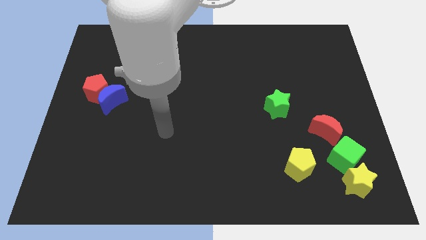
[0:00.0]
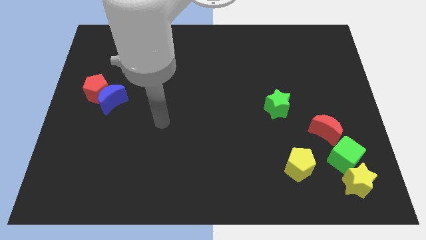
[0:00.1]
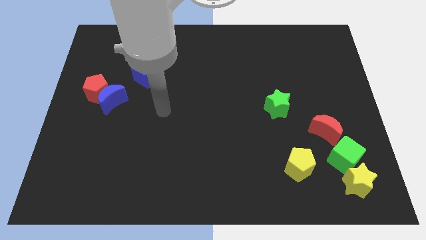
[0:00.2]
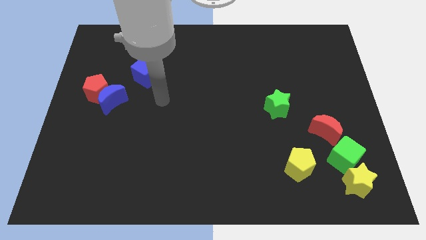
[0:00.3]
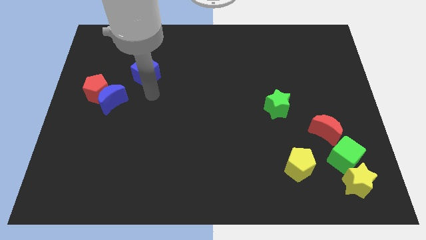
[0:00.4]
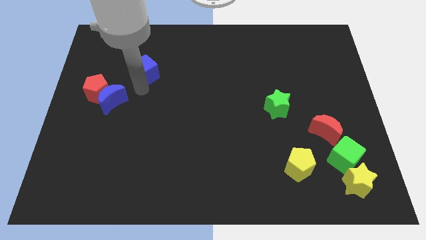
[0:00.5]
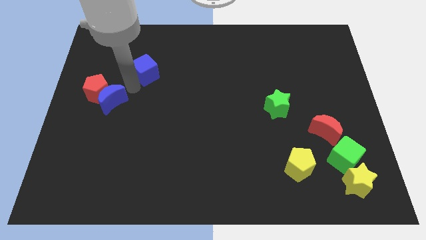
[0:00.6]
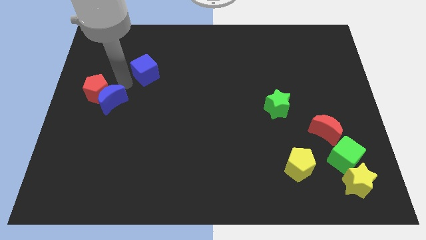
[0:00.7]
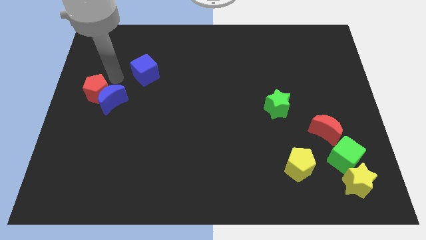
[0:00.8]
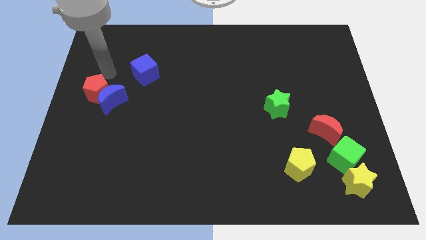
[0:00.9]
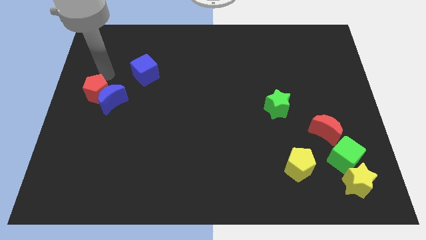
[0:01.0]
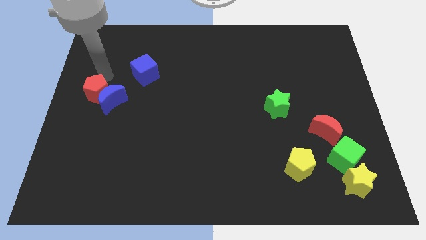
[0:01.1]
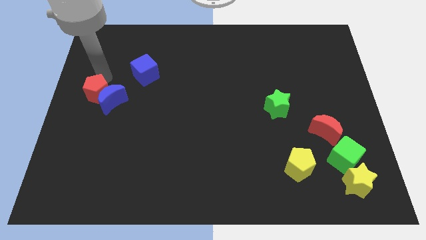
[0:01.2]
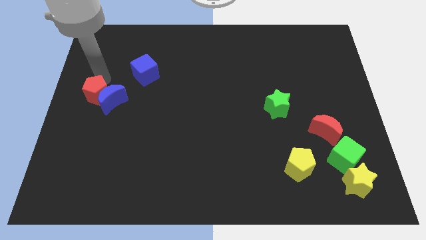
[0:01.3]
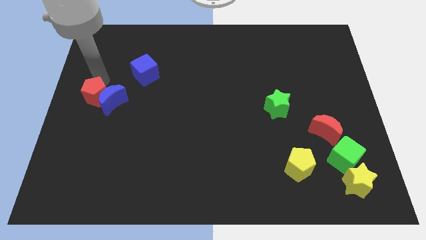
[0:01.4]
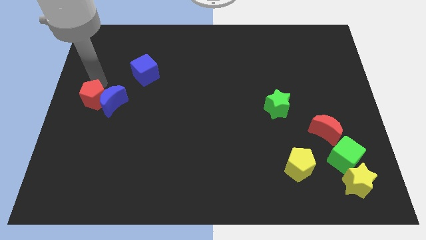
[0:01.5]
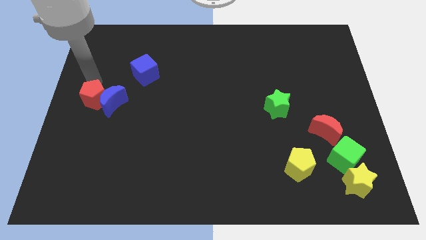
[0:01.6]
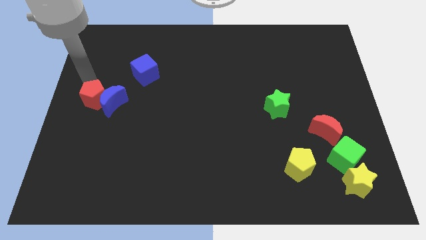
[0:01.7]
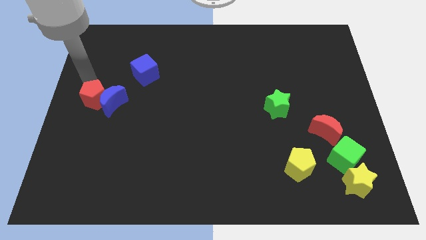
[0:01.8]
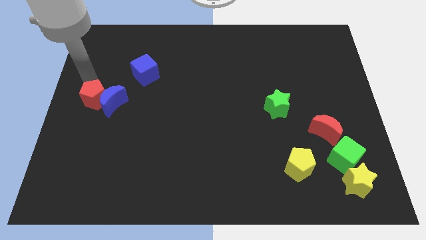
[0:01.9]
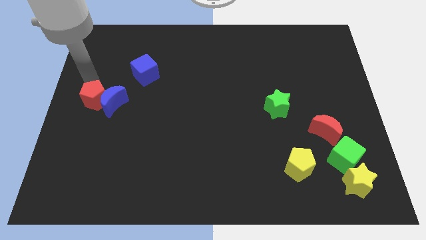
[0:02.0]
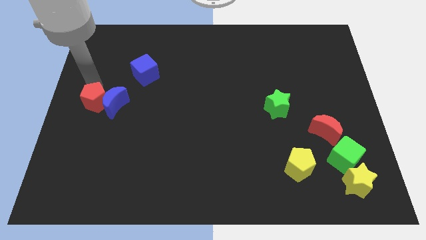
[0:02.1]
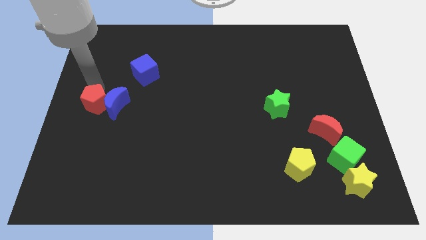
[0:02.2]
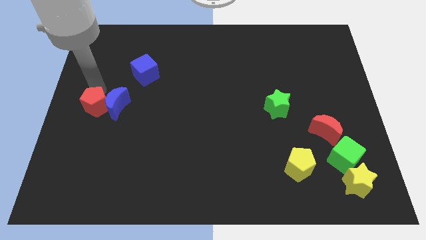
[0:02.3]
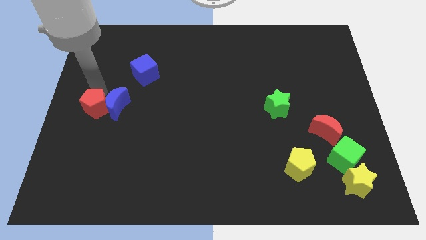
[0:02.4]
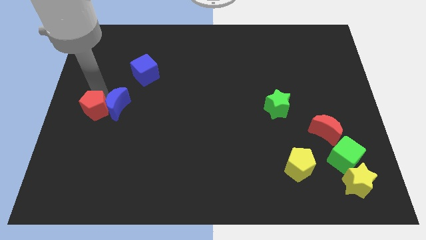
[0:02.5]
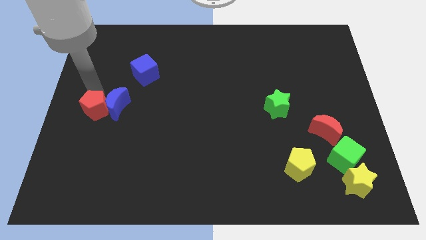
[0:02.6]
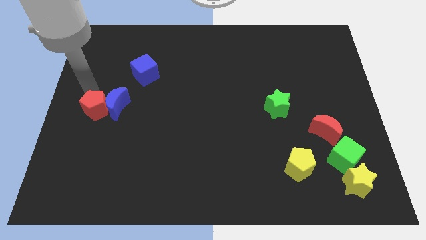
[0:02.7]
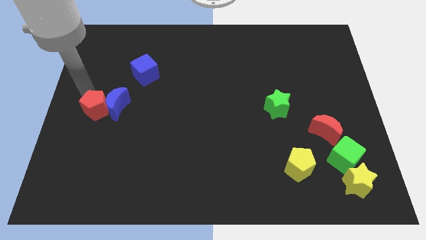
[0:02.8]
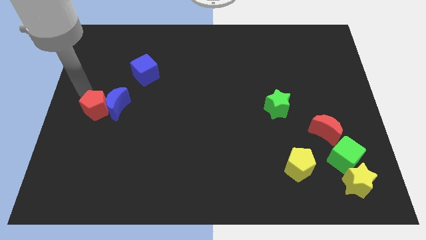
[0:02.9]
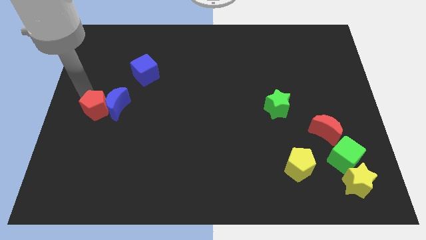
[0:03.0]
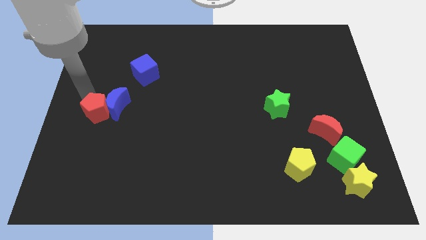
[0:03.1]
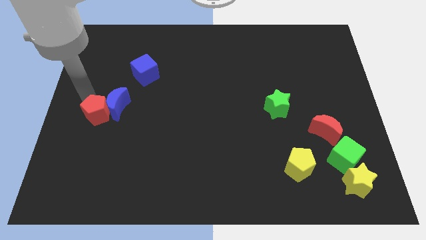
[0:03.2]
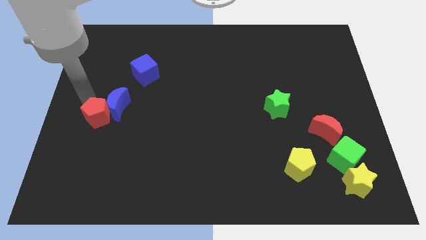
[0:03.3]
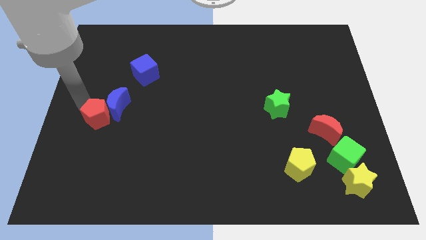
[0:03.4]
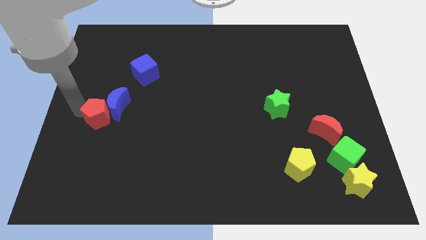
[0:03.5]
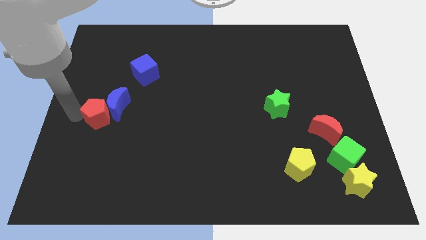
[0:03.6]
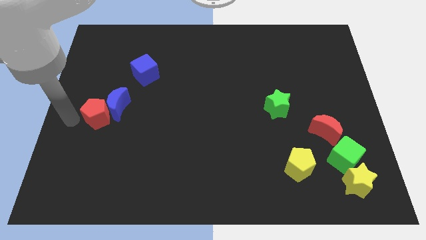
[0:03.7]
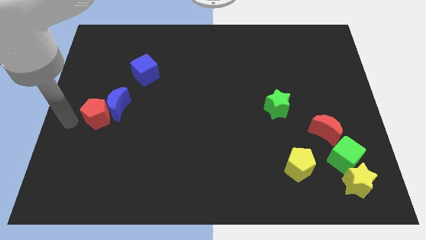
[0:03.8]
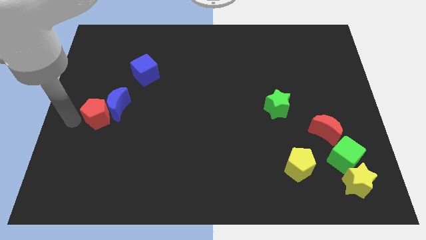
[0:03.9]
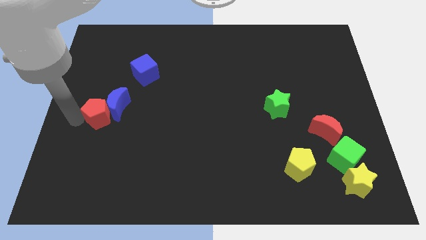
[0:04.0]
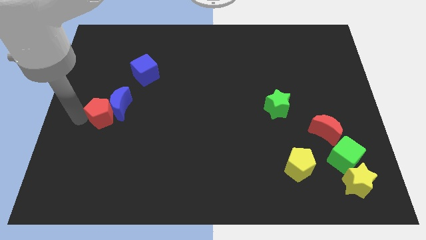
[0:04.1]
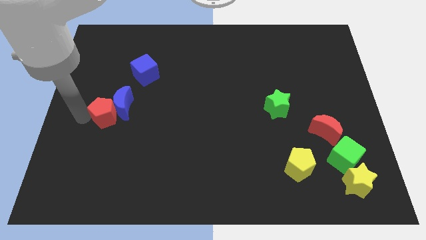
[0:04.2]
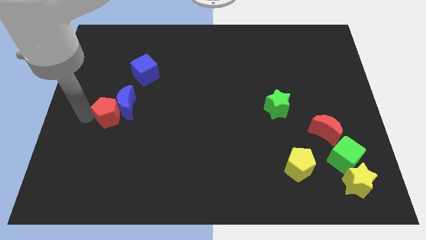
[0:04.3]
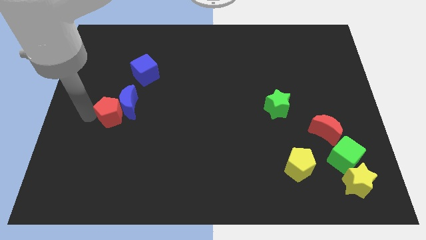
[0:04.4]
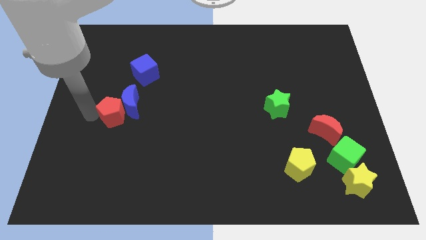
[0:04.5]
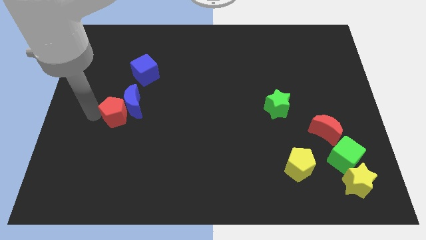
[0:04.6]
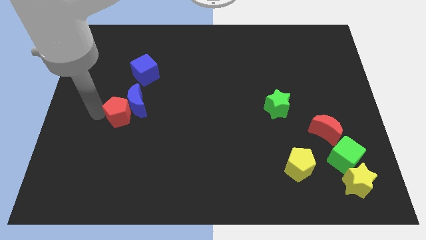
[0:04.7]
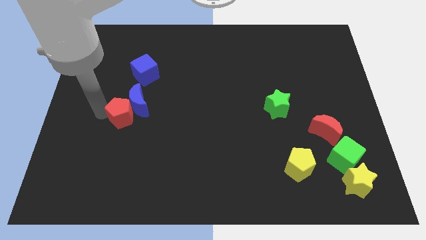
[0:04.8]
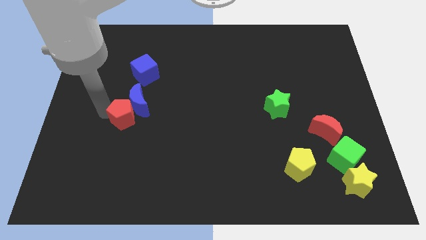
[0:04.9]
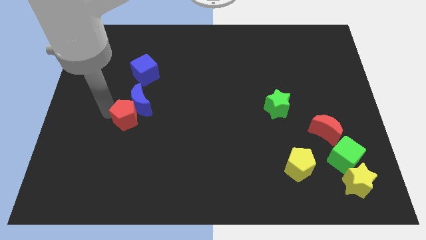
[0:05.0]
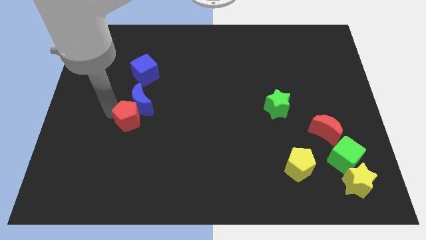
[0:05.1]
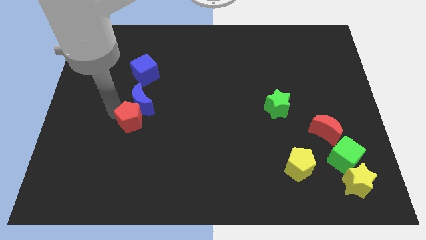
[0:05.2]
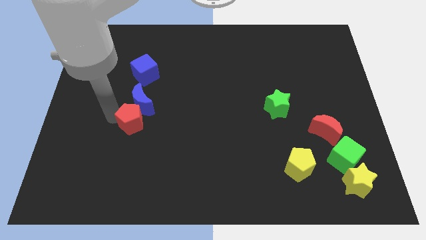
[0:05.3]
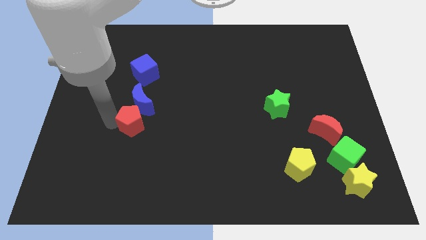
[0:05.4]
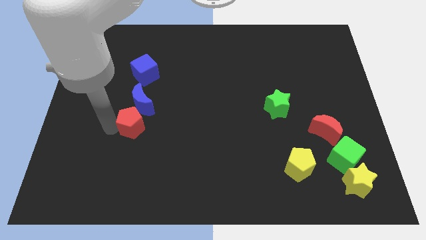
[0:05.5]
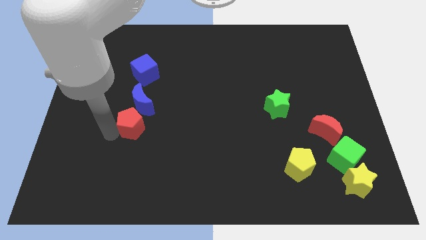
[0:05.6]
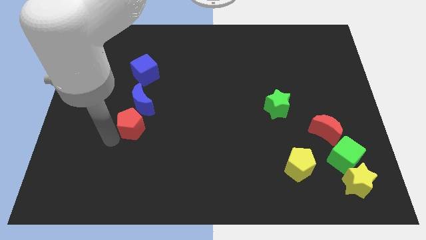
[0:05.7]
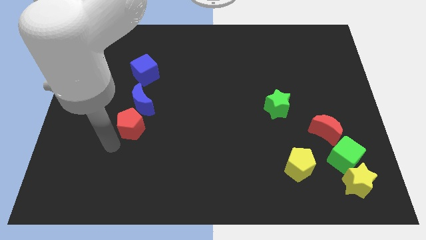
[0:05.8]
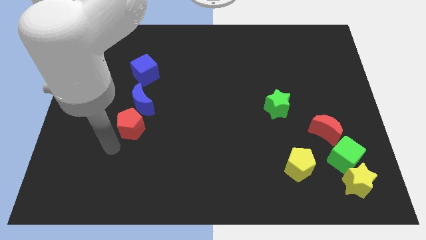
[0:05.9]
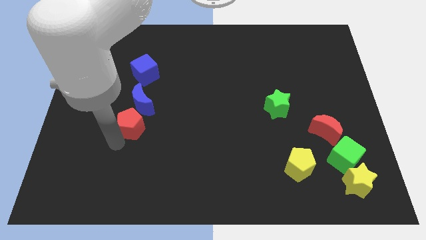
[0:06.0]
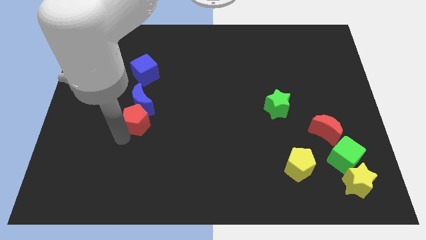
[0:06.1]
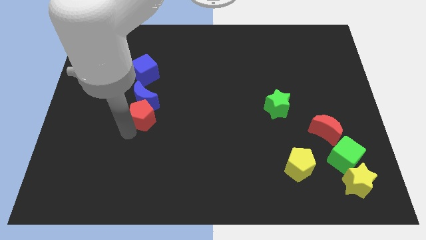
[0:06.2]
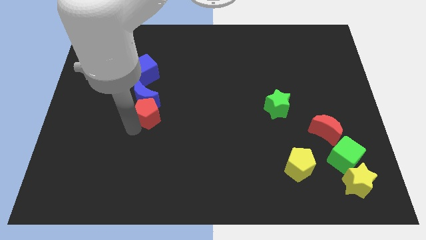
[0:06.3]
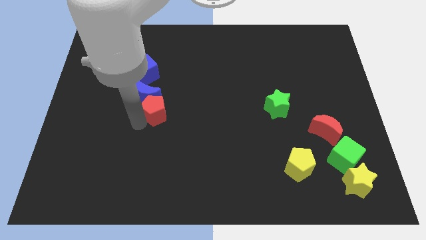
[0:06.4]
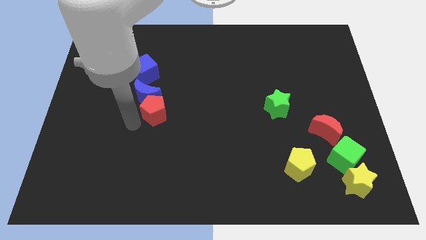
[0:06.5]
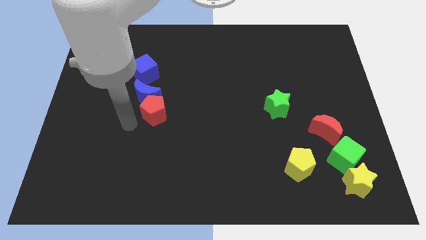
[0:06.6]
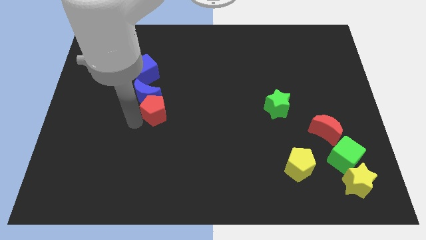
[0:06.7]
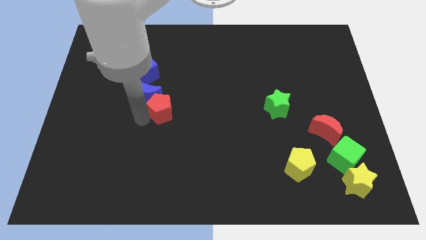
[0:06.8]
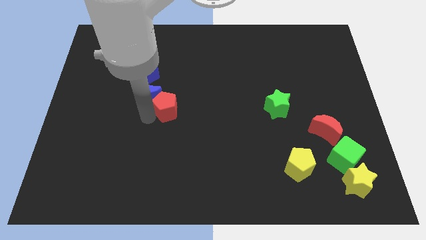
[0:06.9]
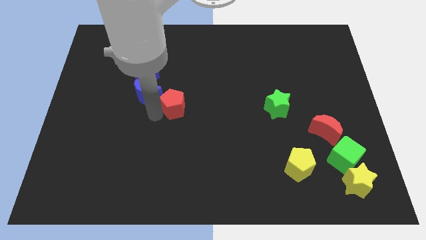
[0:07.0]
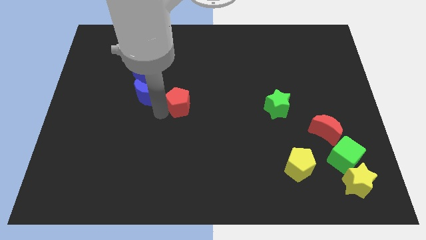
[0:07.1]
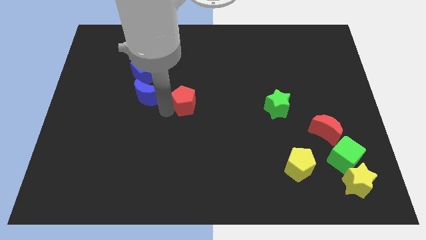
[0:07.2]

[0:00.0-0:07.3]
slide the red pentagon right

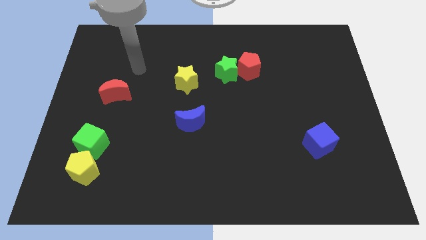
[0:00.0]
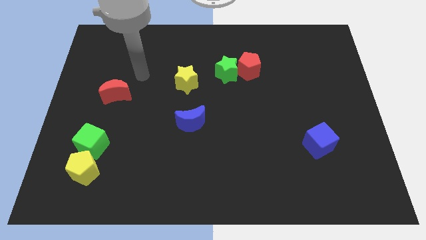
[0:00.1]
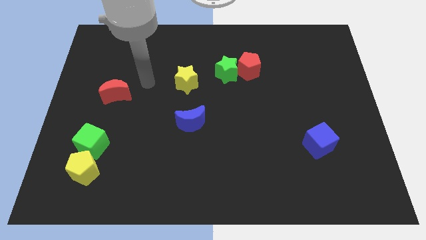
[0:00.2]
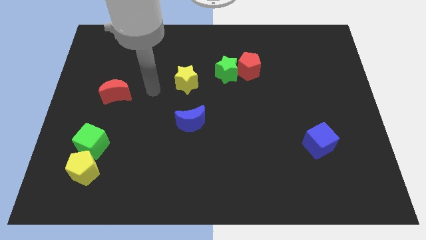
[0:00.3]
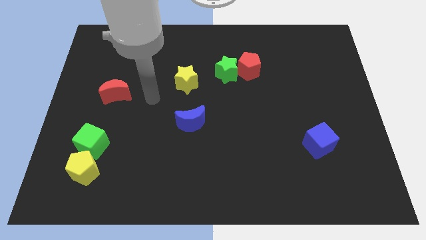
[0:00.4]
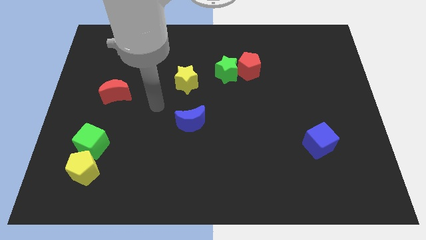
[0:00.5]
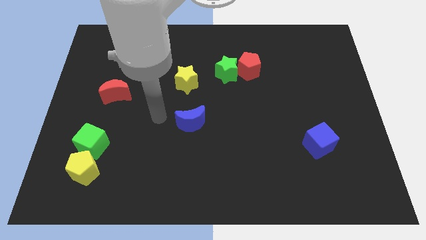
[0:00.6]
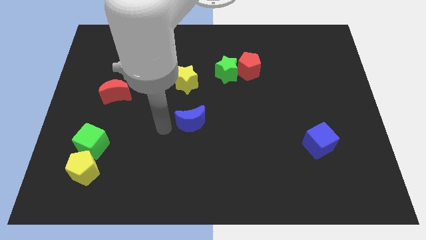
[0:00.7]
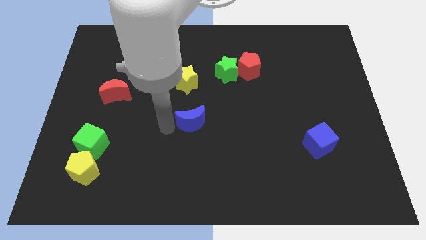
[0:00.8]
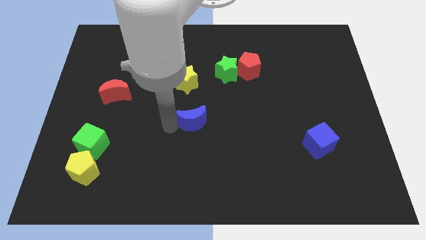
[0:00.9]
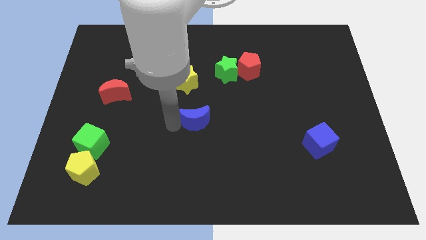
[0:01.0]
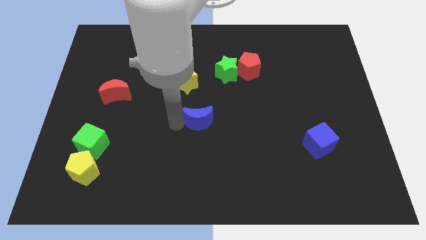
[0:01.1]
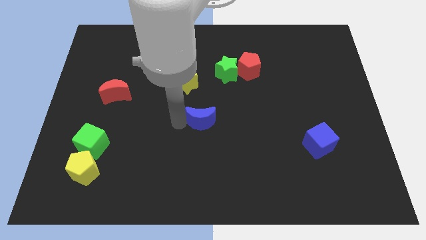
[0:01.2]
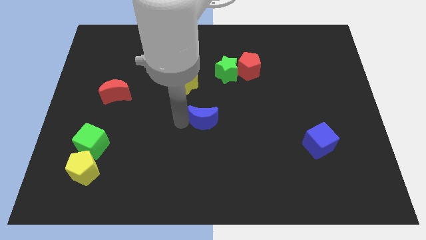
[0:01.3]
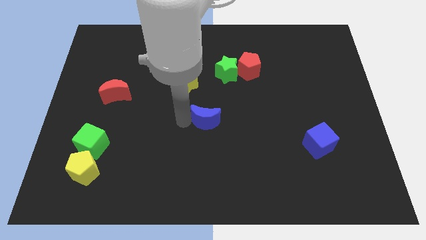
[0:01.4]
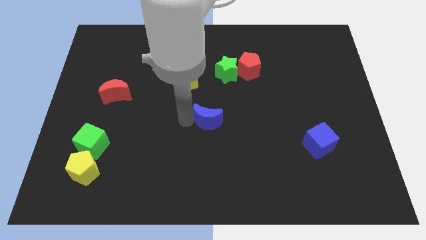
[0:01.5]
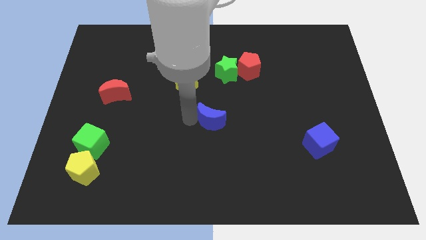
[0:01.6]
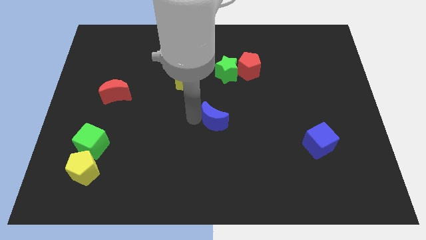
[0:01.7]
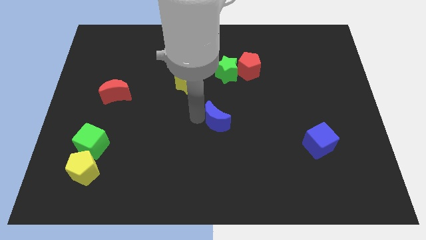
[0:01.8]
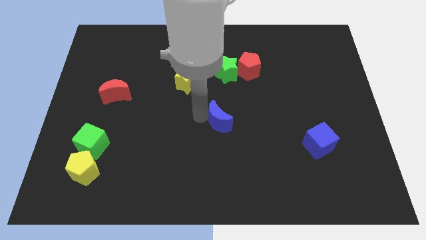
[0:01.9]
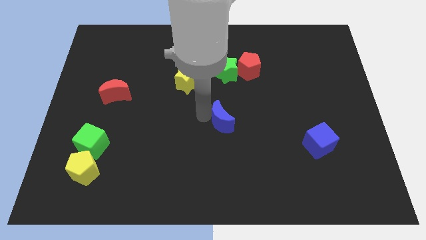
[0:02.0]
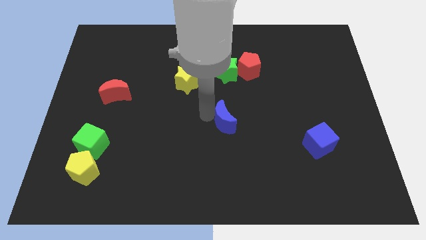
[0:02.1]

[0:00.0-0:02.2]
slightly slide the blue moon right
